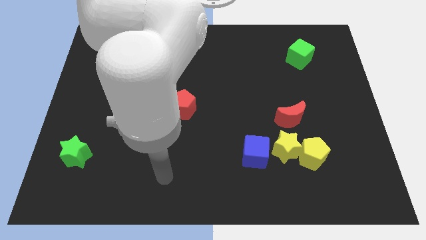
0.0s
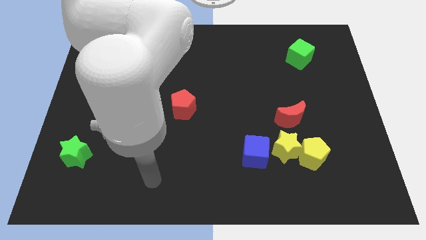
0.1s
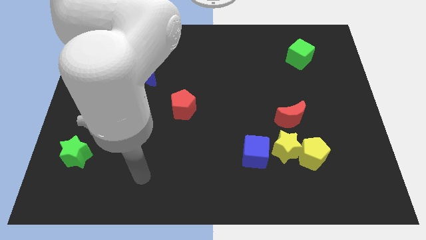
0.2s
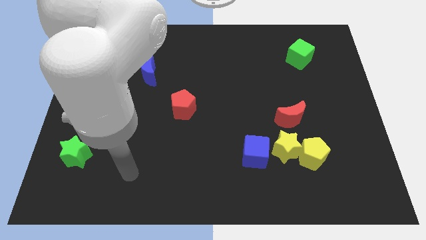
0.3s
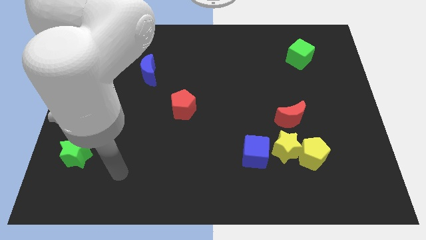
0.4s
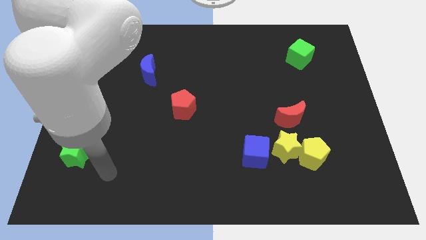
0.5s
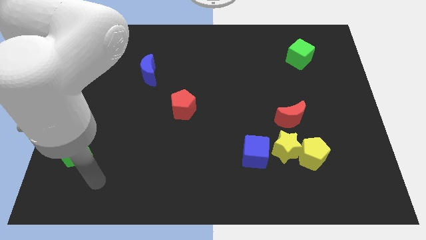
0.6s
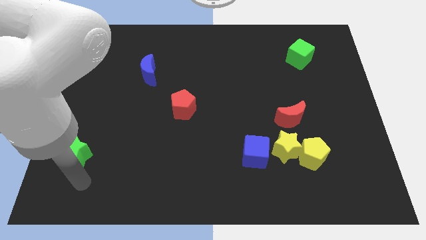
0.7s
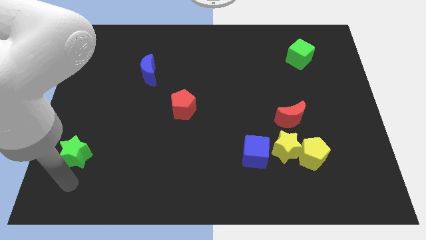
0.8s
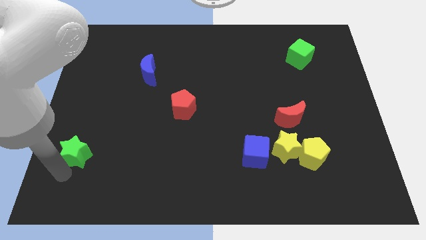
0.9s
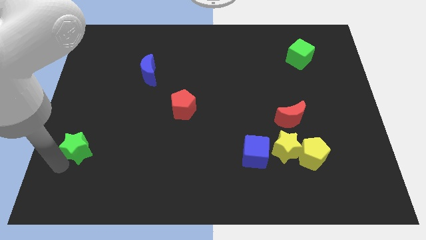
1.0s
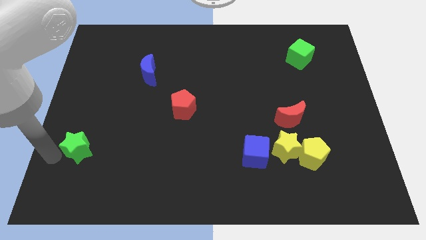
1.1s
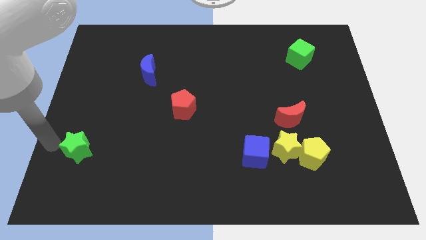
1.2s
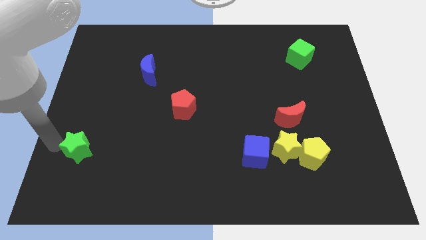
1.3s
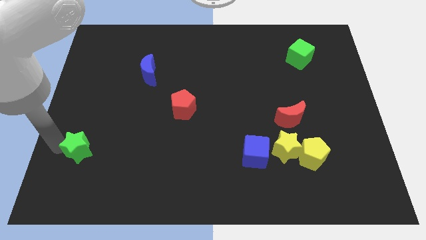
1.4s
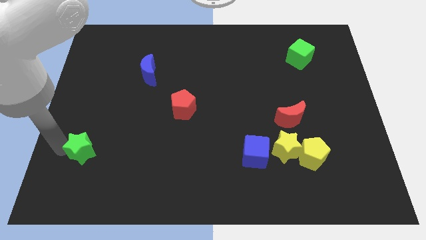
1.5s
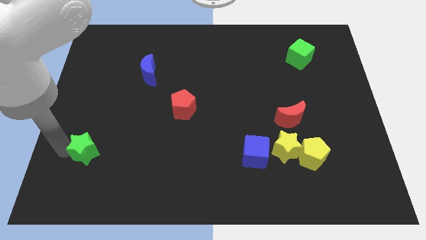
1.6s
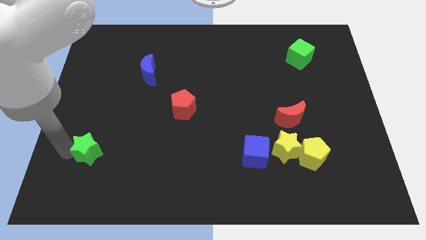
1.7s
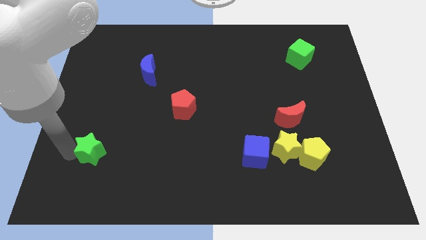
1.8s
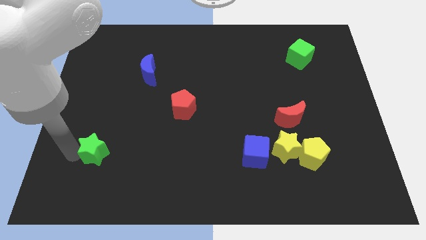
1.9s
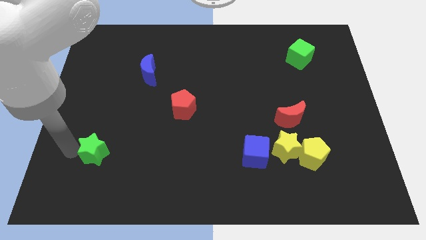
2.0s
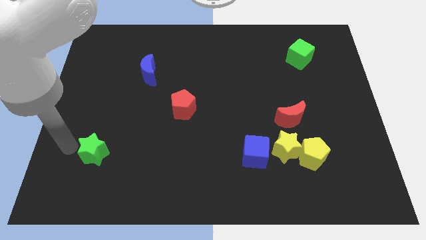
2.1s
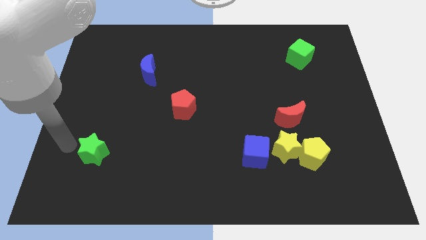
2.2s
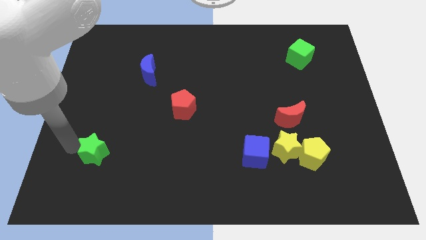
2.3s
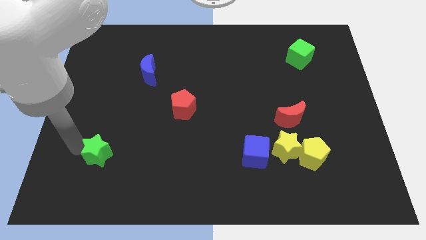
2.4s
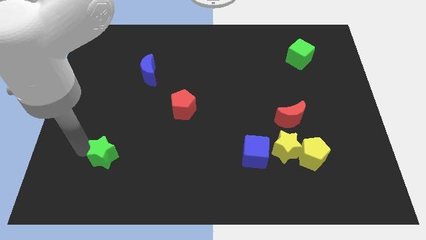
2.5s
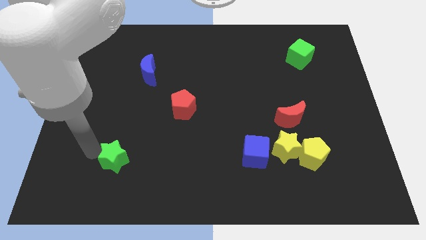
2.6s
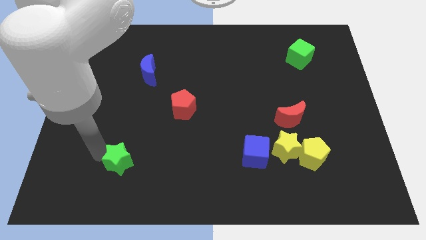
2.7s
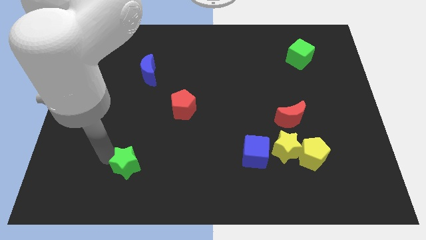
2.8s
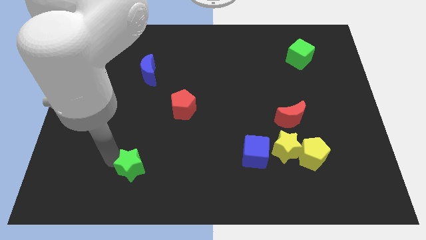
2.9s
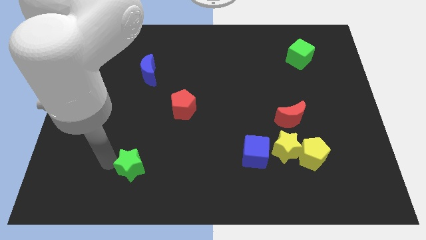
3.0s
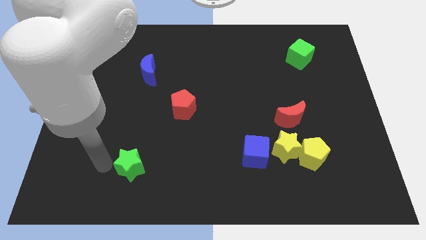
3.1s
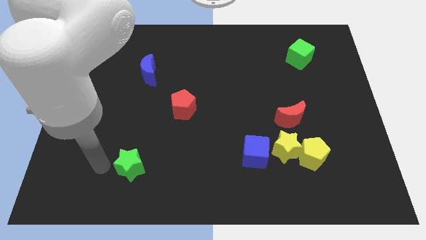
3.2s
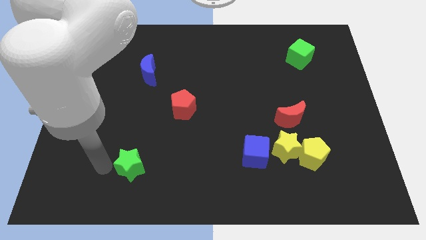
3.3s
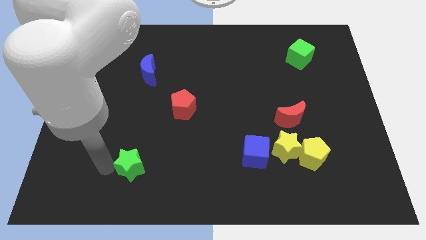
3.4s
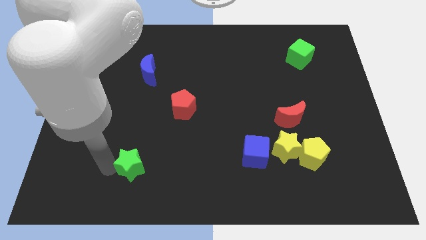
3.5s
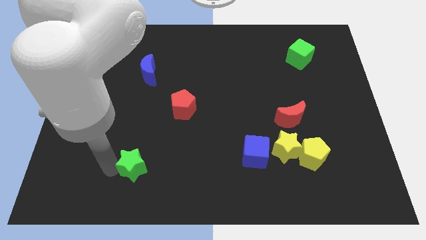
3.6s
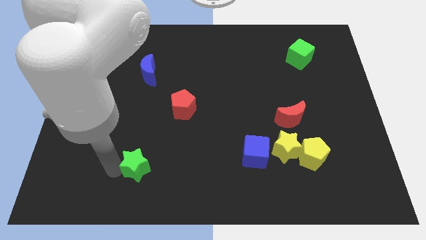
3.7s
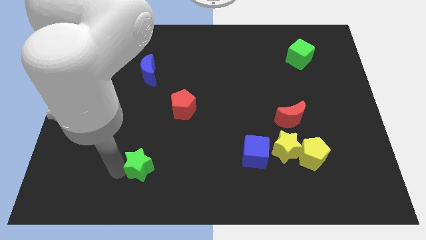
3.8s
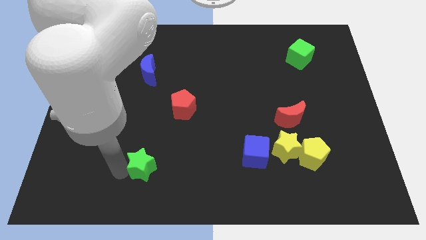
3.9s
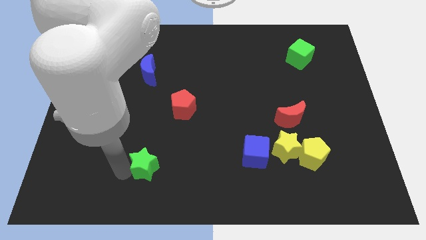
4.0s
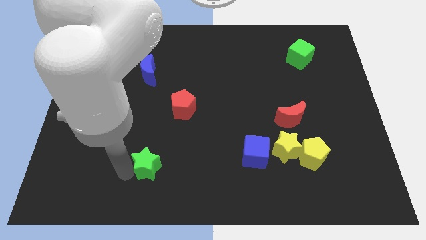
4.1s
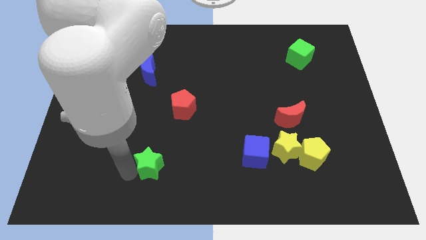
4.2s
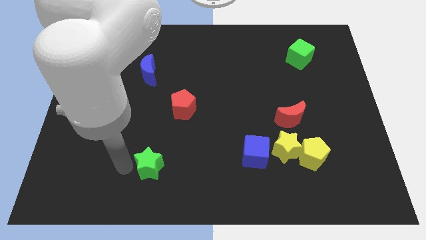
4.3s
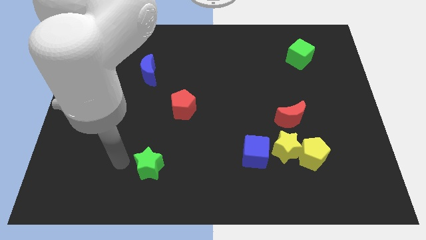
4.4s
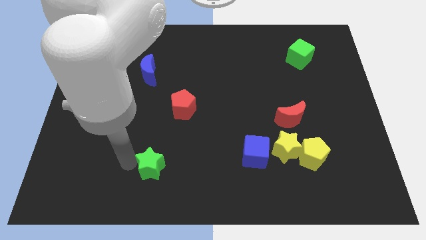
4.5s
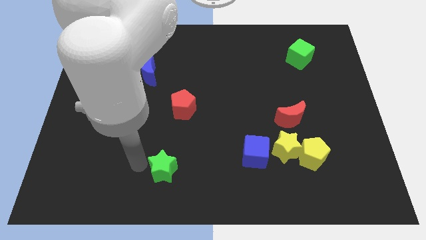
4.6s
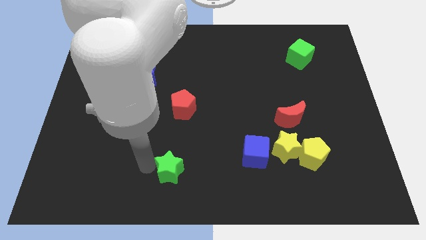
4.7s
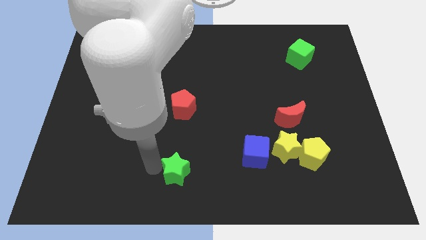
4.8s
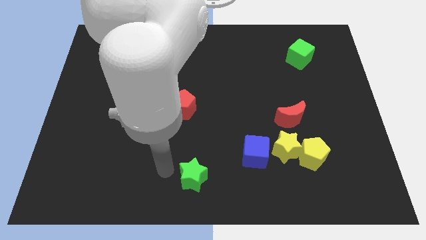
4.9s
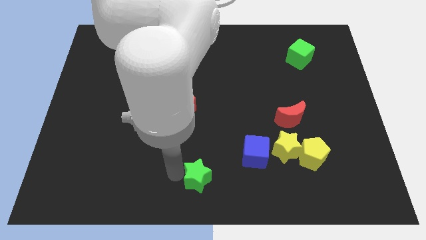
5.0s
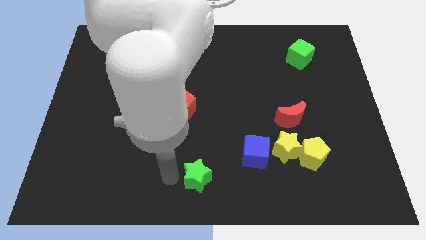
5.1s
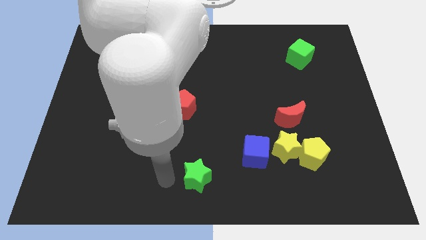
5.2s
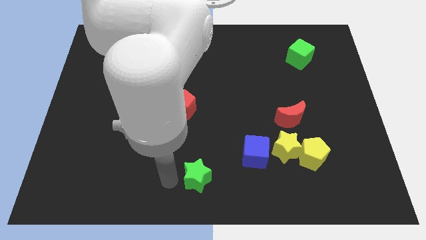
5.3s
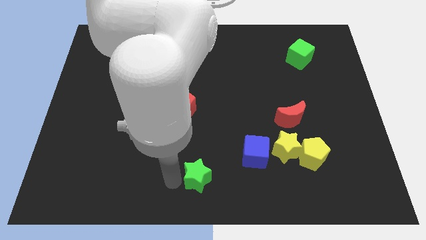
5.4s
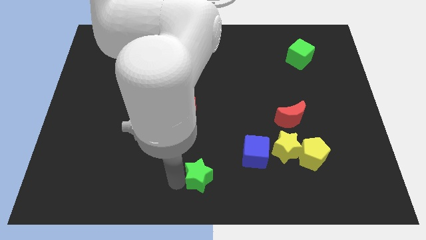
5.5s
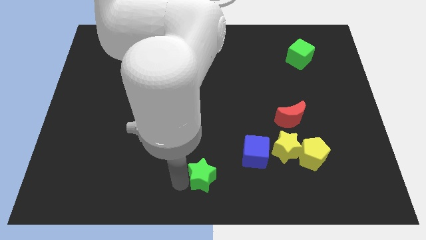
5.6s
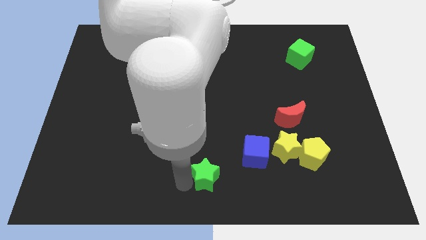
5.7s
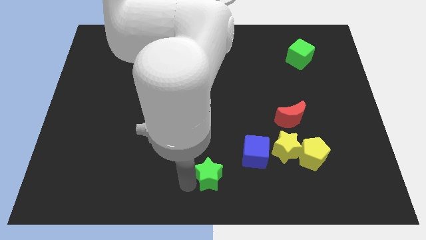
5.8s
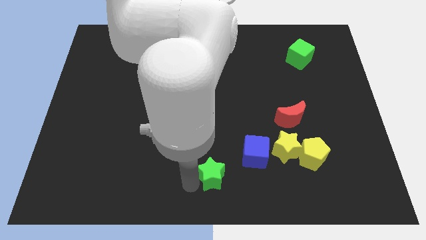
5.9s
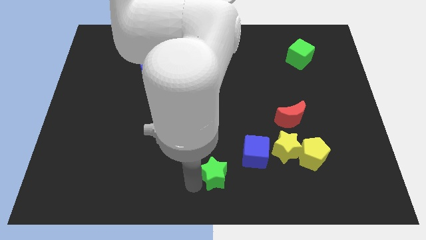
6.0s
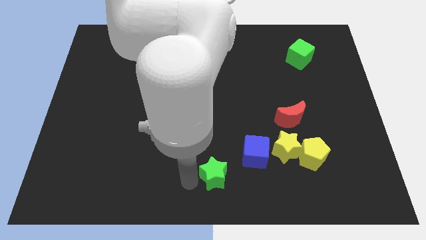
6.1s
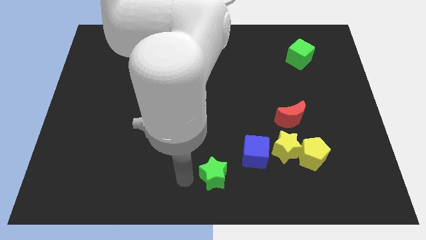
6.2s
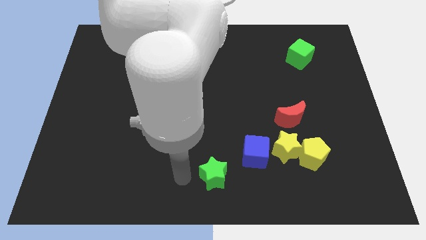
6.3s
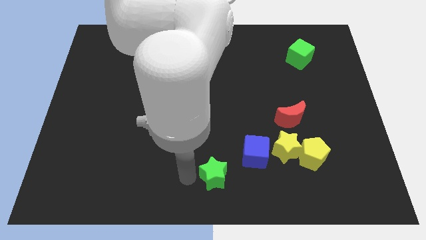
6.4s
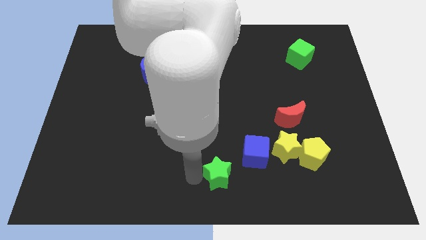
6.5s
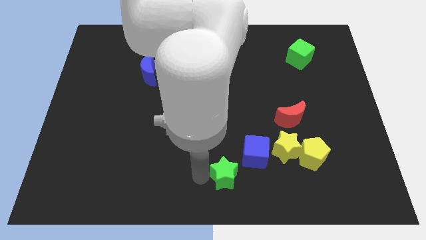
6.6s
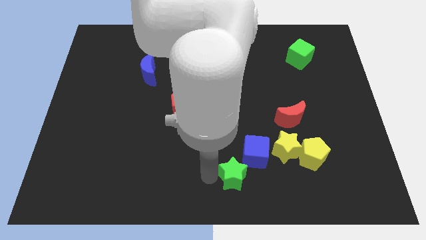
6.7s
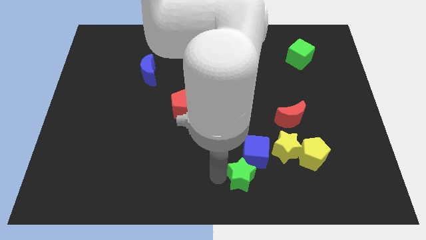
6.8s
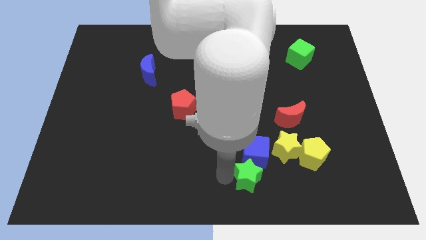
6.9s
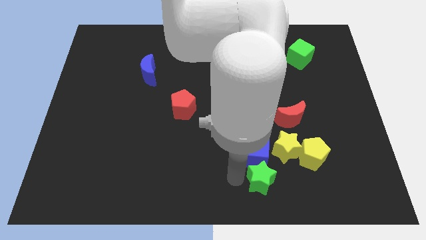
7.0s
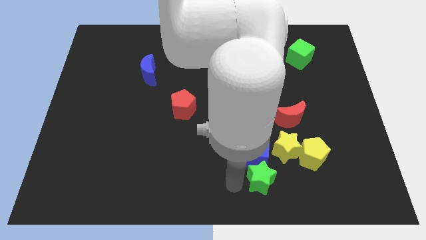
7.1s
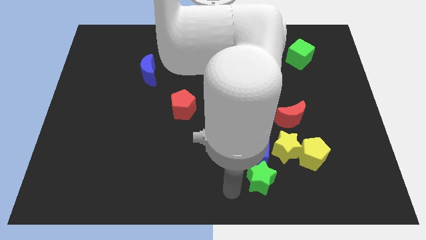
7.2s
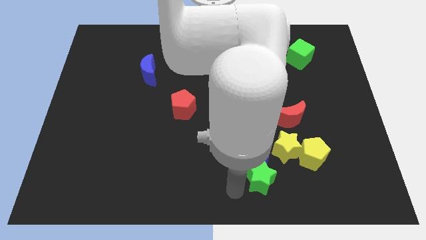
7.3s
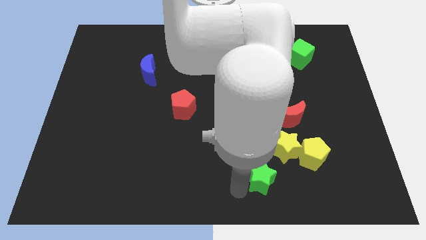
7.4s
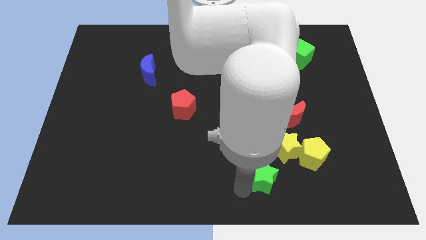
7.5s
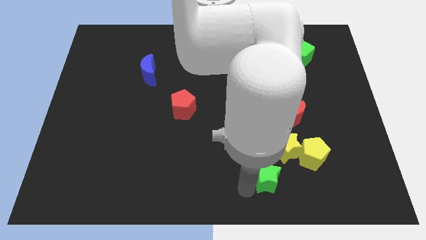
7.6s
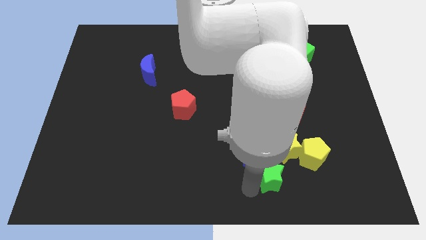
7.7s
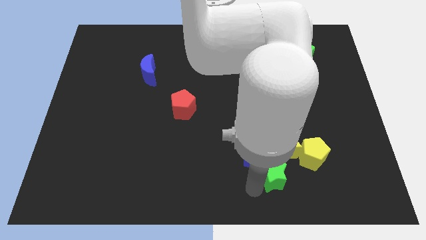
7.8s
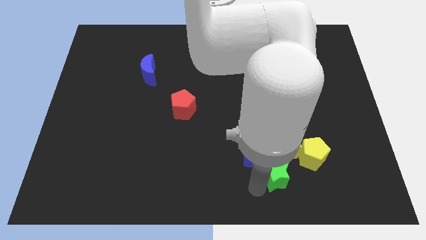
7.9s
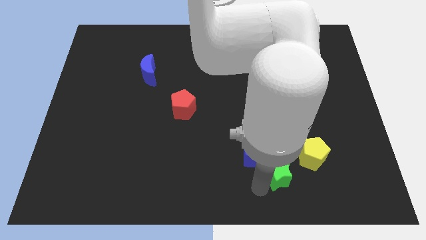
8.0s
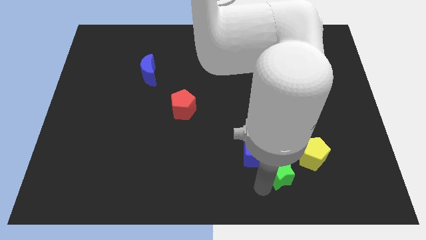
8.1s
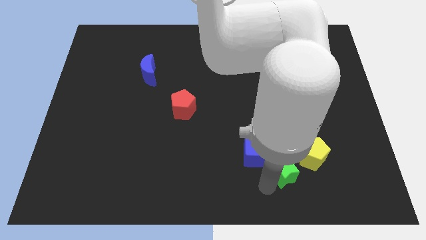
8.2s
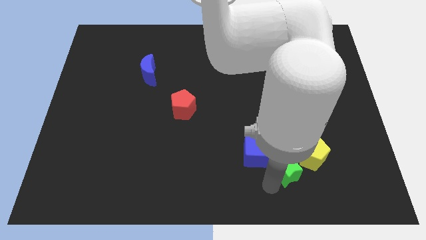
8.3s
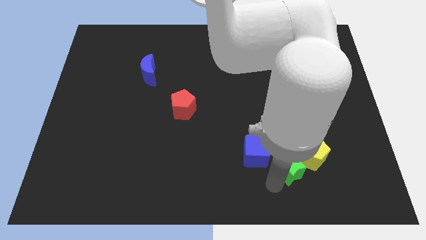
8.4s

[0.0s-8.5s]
put the green star towards the yellow pentagon
